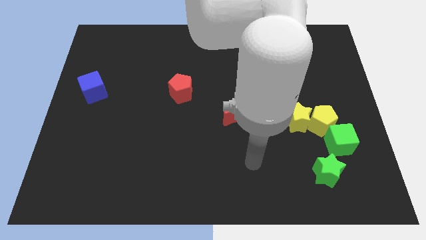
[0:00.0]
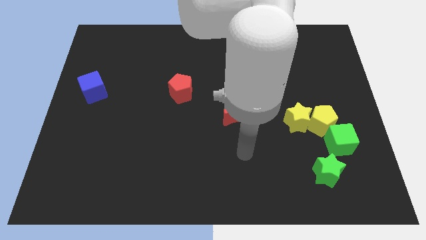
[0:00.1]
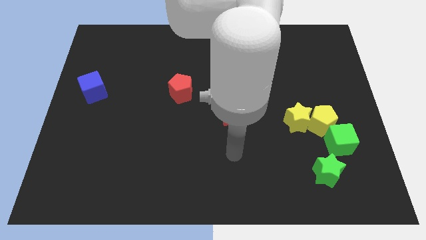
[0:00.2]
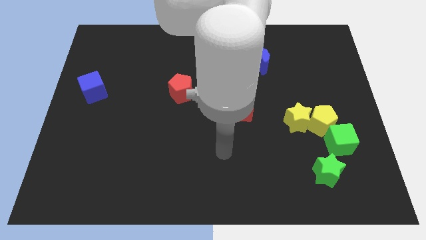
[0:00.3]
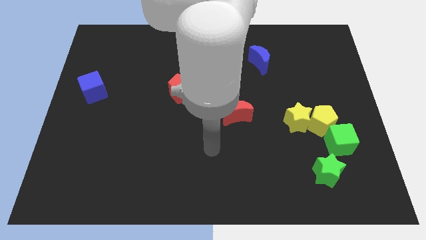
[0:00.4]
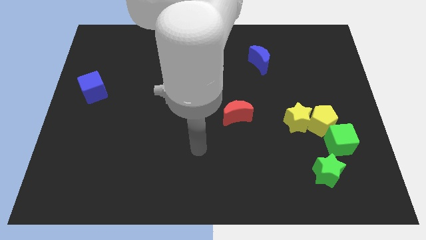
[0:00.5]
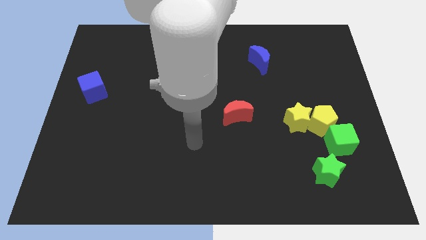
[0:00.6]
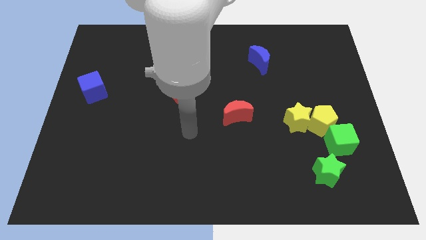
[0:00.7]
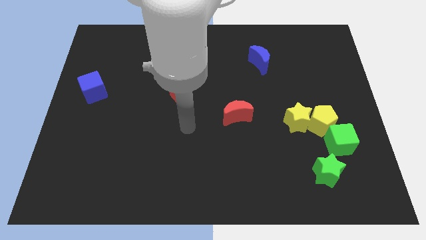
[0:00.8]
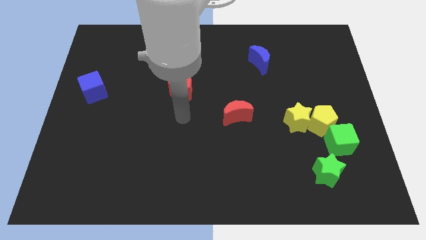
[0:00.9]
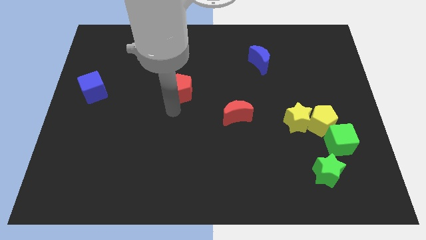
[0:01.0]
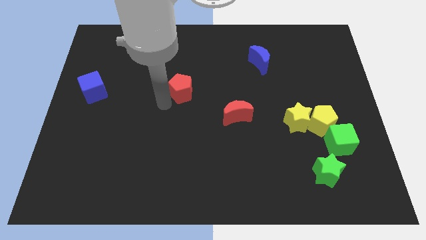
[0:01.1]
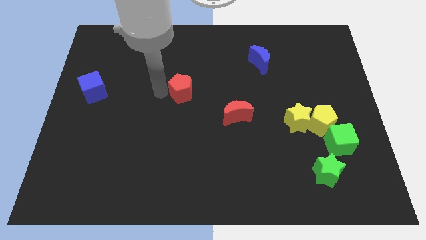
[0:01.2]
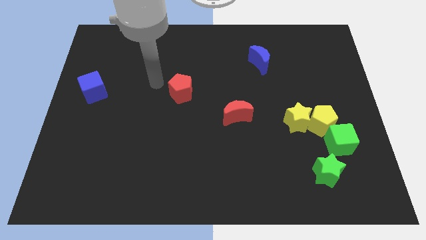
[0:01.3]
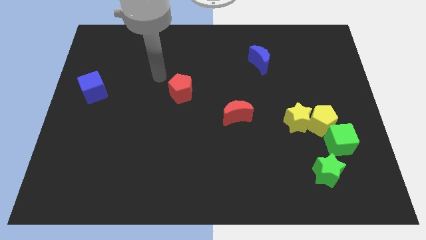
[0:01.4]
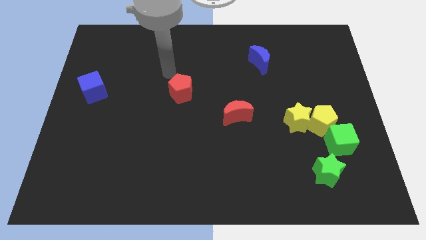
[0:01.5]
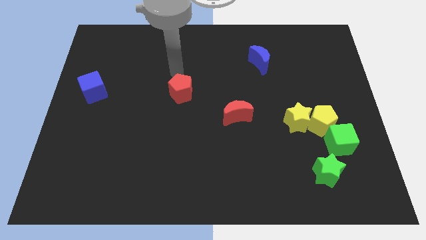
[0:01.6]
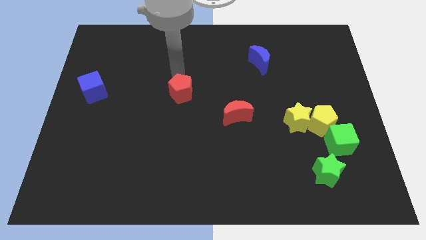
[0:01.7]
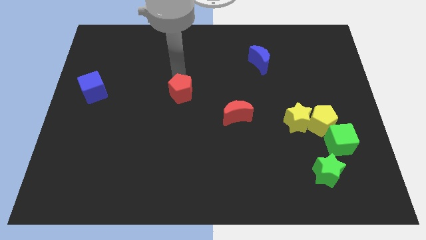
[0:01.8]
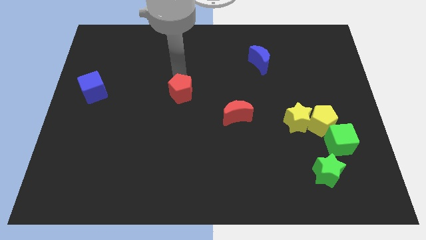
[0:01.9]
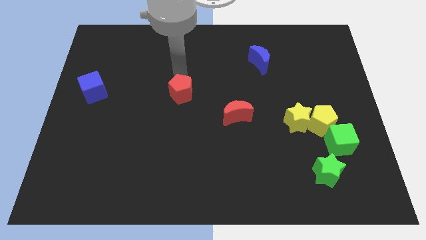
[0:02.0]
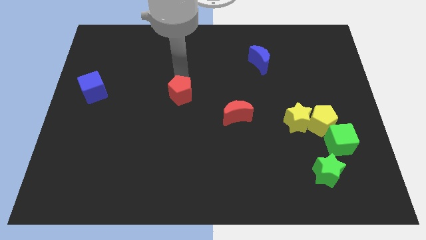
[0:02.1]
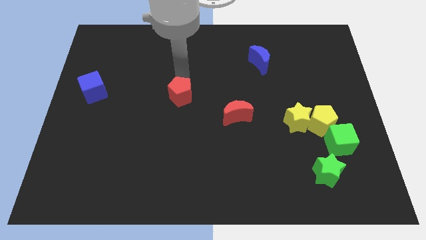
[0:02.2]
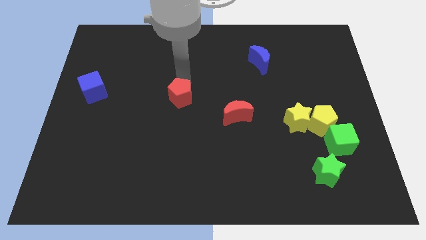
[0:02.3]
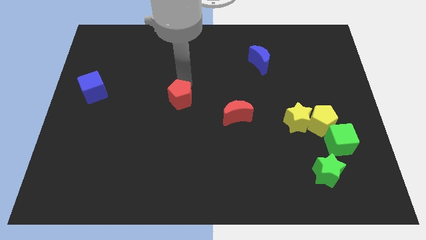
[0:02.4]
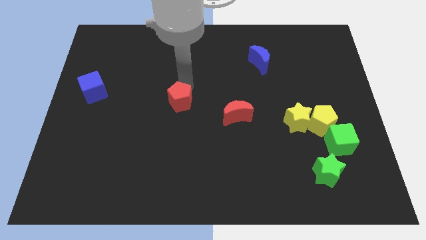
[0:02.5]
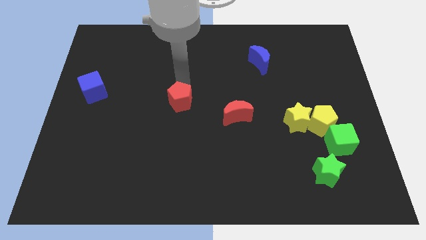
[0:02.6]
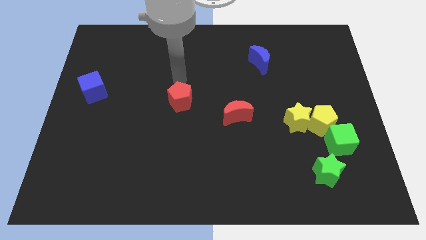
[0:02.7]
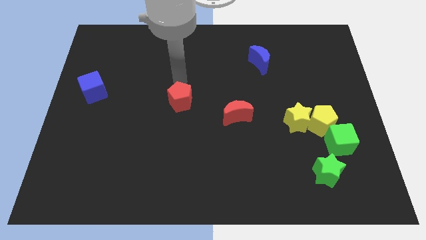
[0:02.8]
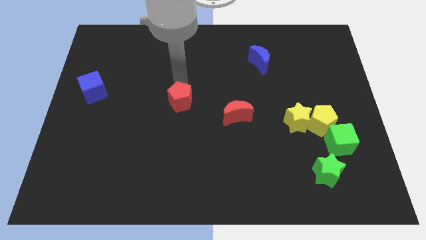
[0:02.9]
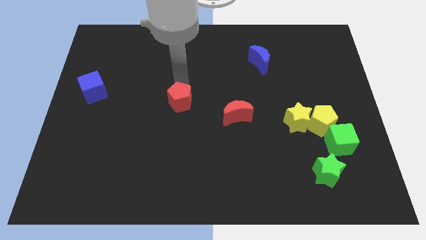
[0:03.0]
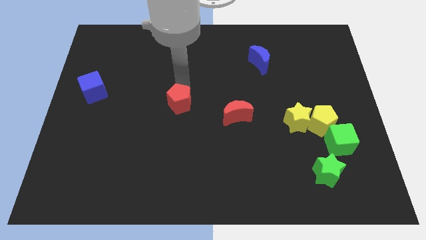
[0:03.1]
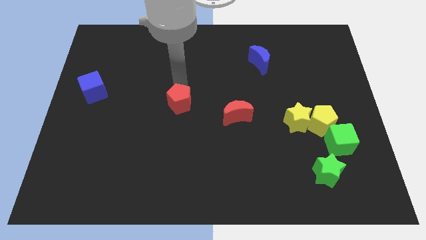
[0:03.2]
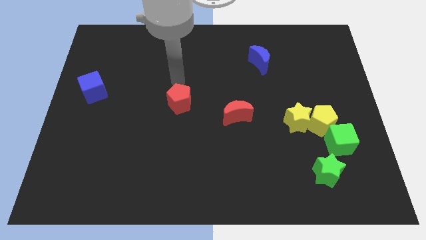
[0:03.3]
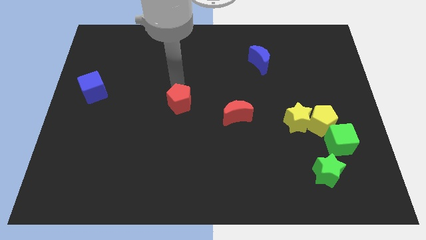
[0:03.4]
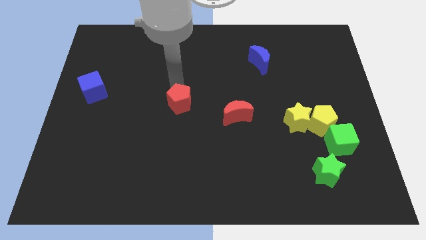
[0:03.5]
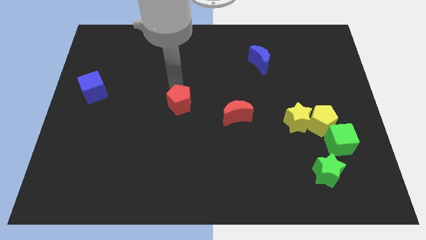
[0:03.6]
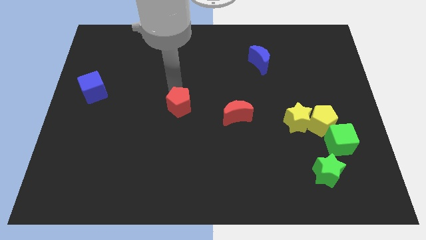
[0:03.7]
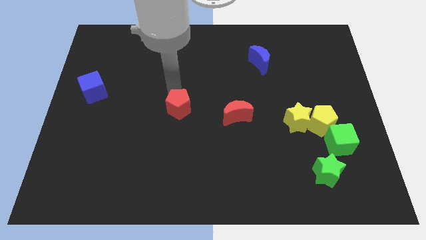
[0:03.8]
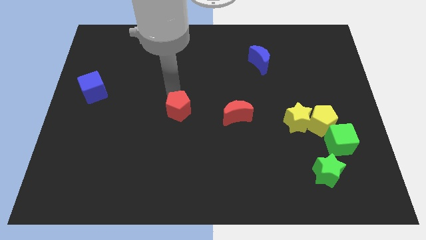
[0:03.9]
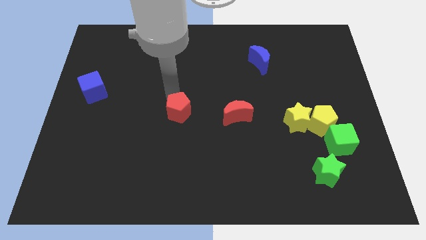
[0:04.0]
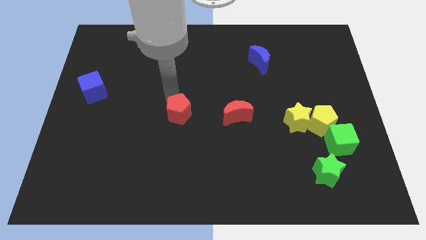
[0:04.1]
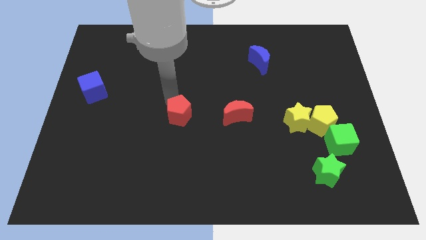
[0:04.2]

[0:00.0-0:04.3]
push the red pentagon a little down

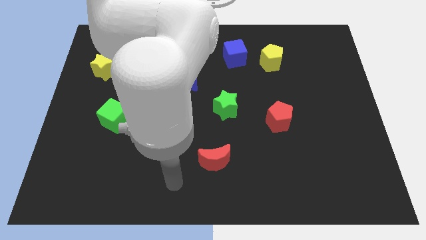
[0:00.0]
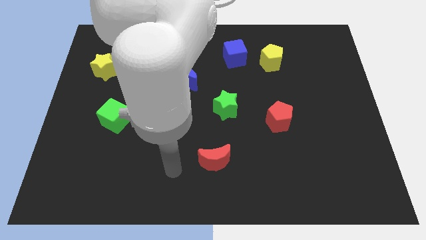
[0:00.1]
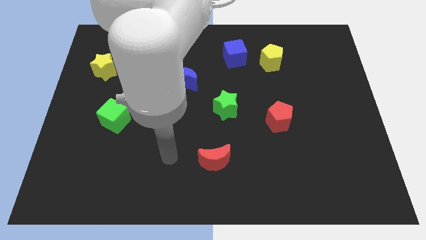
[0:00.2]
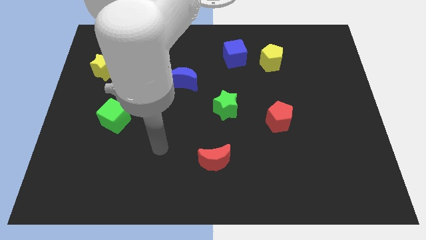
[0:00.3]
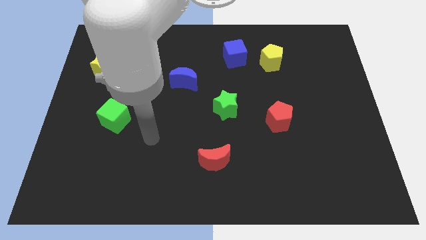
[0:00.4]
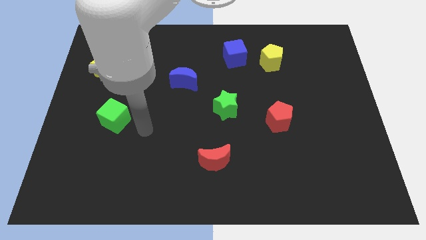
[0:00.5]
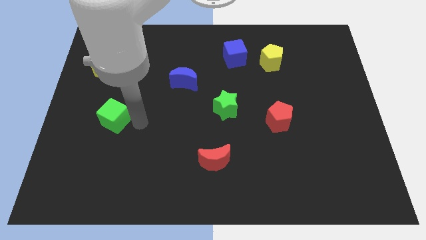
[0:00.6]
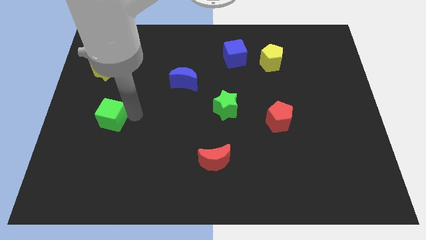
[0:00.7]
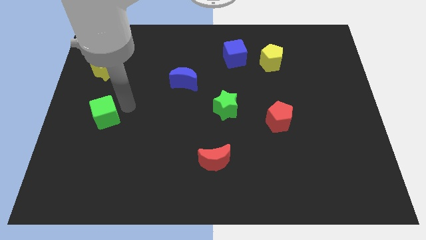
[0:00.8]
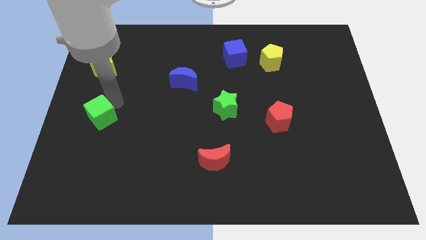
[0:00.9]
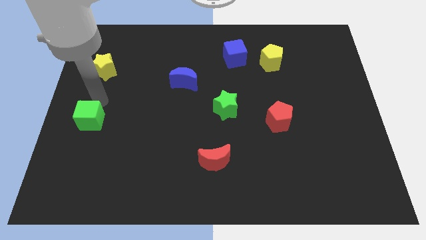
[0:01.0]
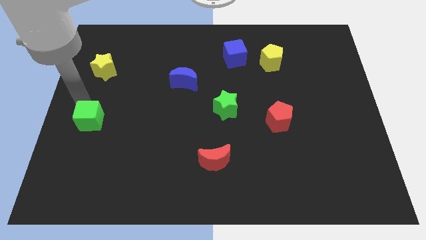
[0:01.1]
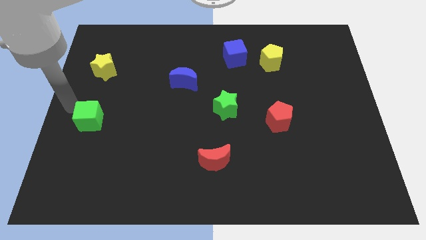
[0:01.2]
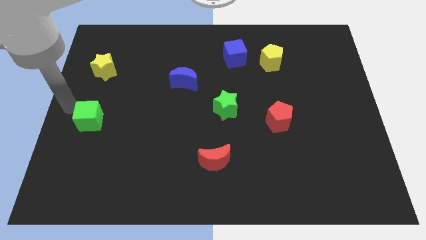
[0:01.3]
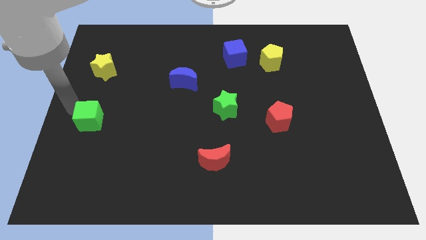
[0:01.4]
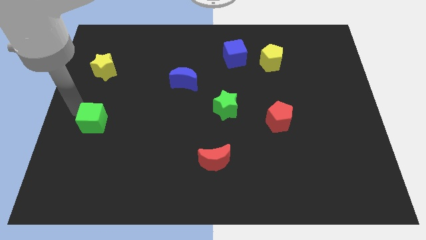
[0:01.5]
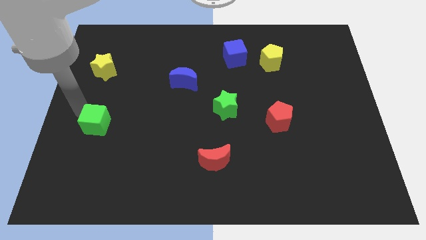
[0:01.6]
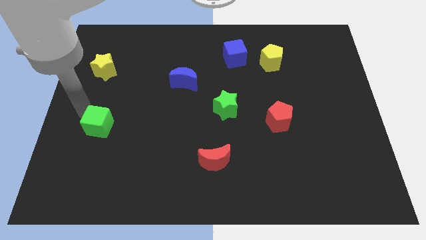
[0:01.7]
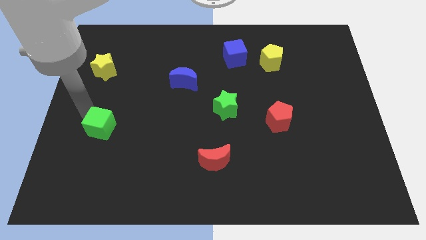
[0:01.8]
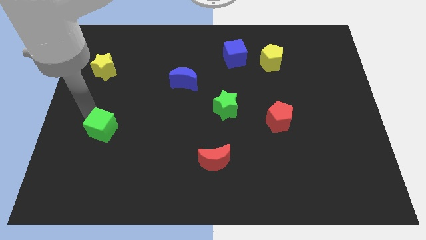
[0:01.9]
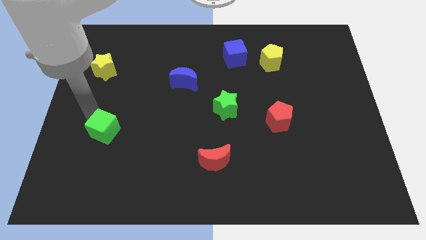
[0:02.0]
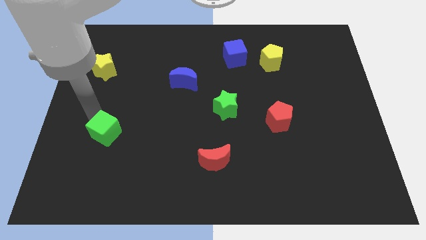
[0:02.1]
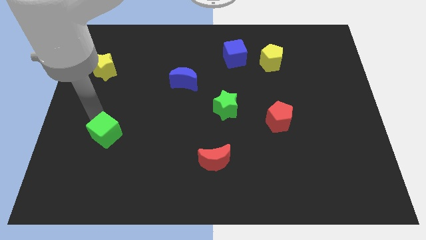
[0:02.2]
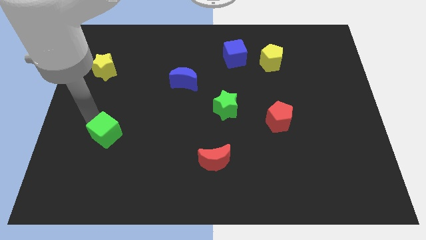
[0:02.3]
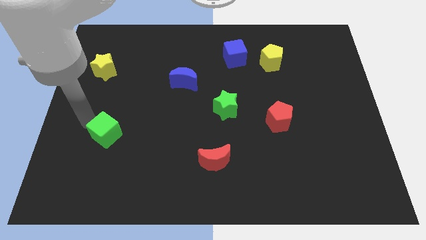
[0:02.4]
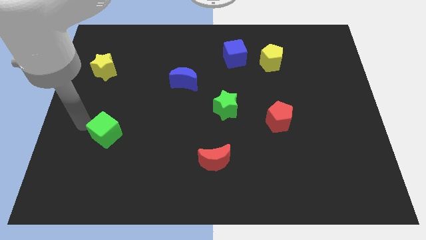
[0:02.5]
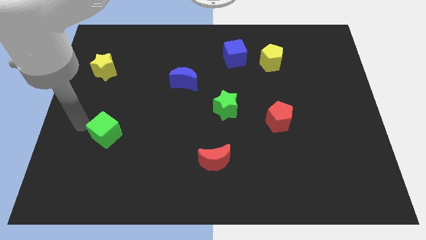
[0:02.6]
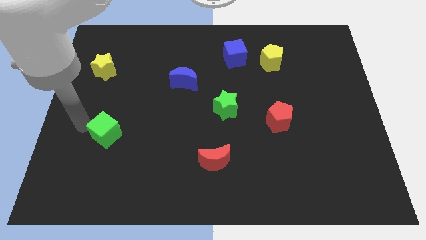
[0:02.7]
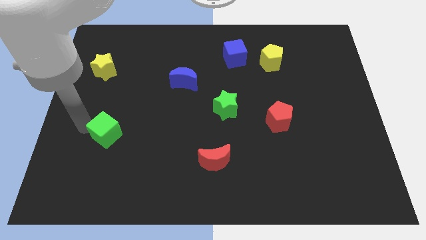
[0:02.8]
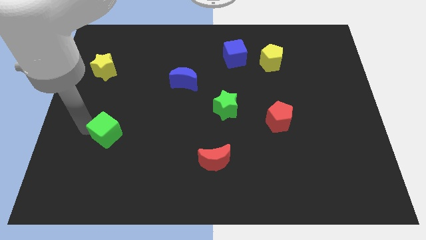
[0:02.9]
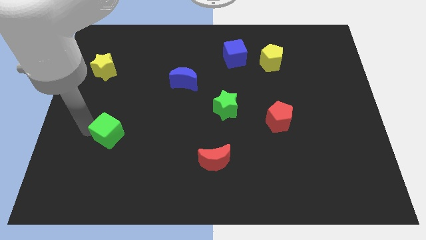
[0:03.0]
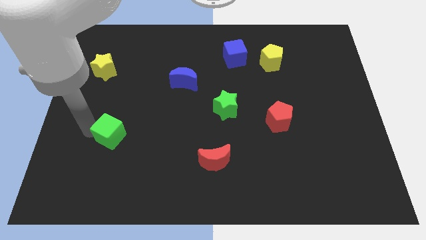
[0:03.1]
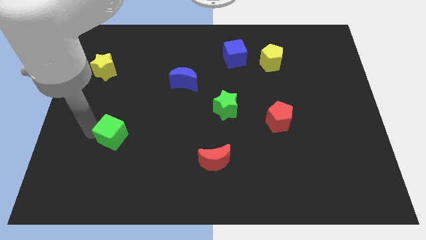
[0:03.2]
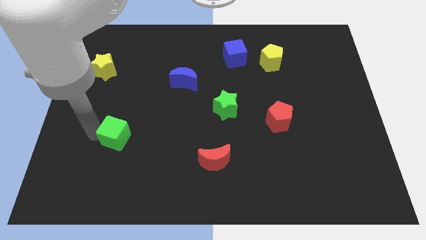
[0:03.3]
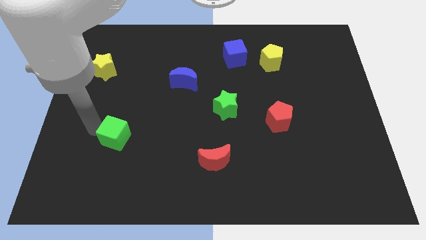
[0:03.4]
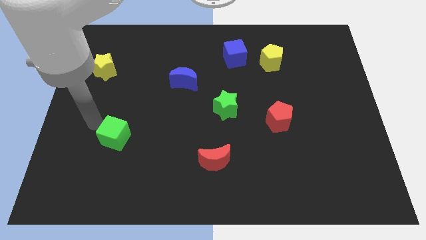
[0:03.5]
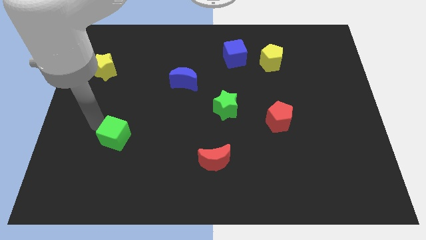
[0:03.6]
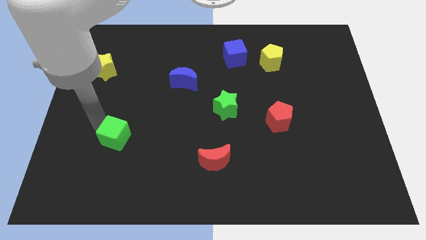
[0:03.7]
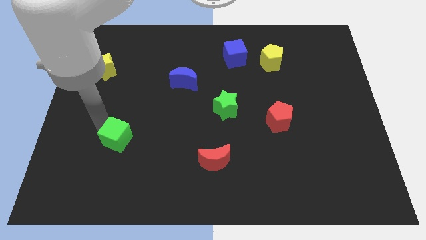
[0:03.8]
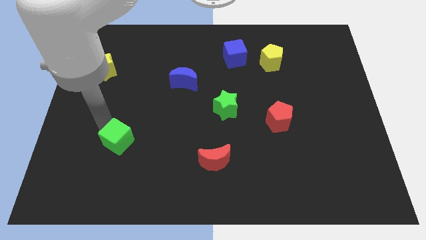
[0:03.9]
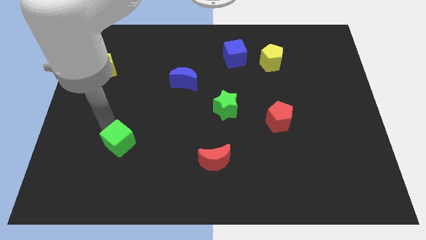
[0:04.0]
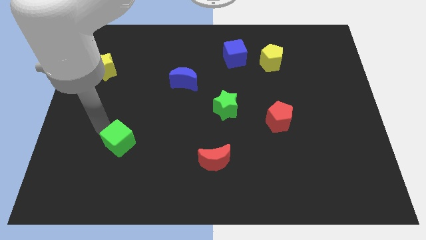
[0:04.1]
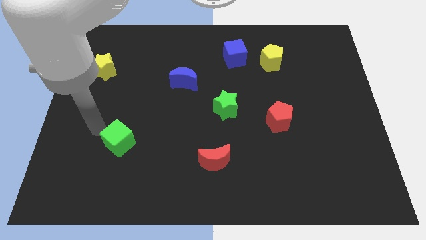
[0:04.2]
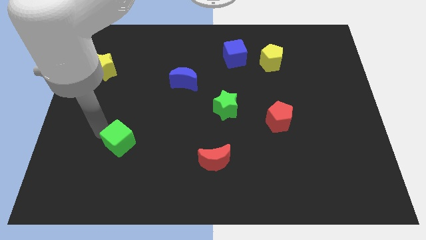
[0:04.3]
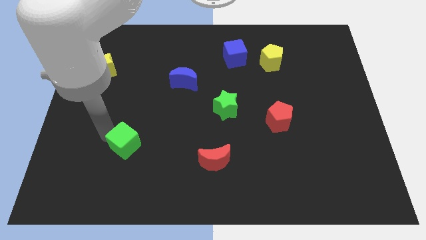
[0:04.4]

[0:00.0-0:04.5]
move the green cube a bit downwards and then to the right
